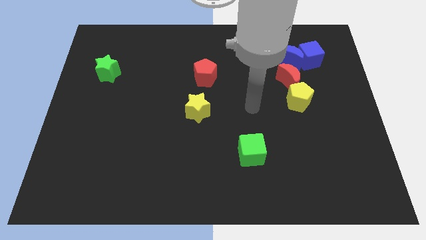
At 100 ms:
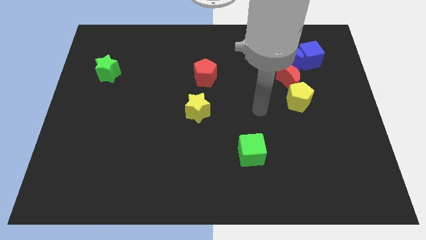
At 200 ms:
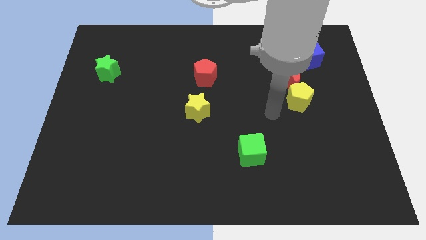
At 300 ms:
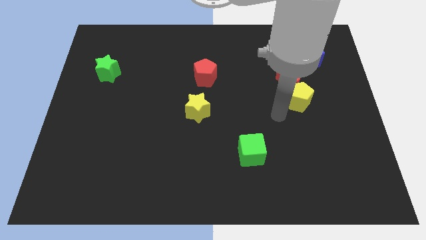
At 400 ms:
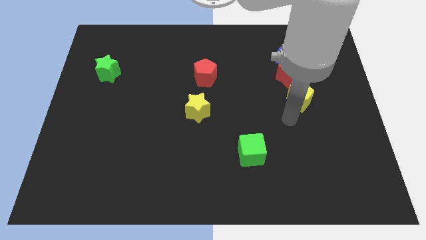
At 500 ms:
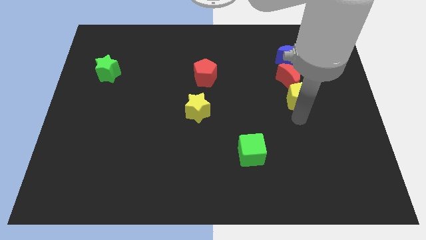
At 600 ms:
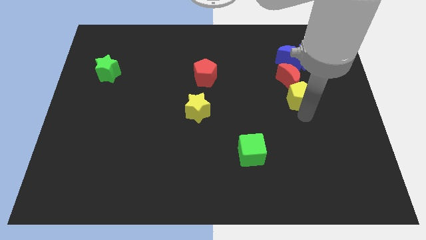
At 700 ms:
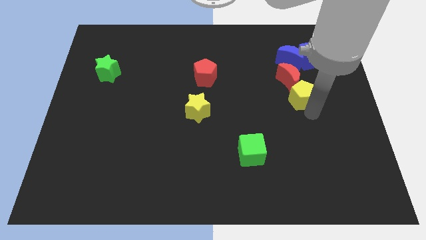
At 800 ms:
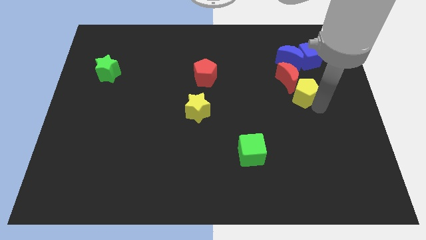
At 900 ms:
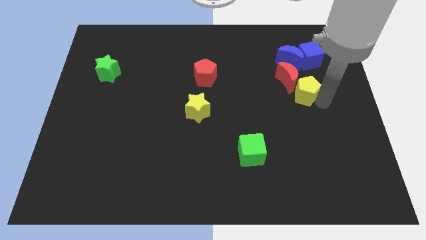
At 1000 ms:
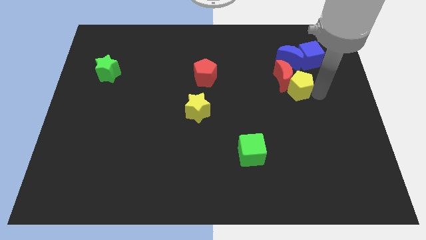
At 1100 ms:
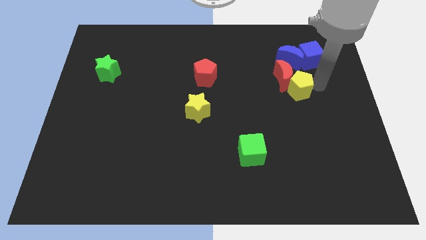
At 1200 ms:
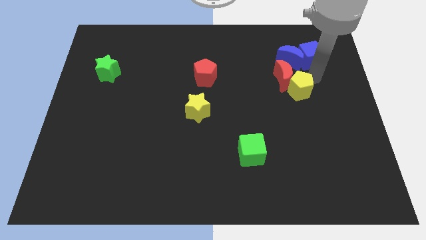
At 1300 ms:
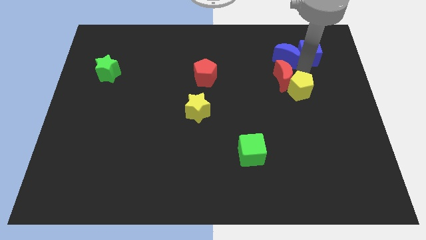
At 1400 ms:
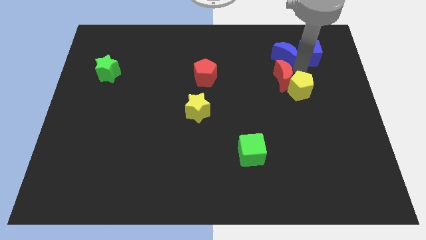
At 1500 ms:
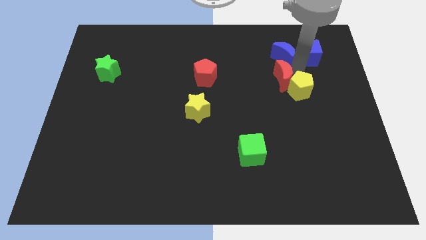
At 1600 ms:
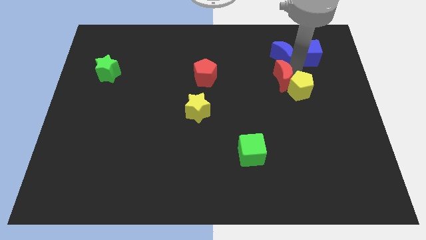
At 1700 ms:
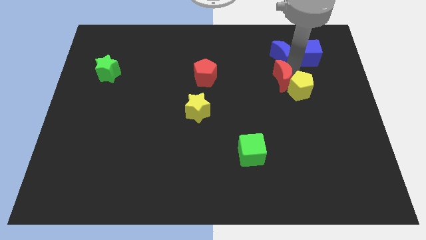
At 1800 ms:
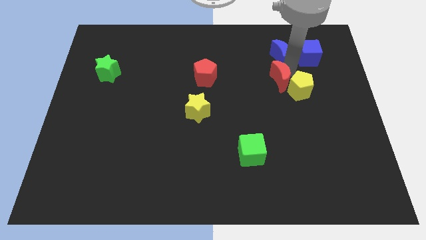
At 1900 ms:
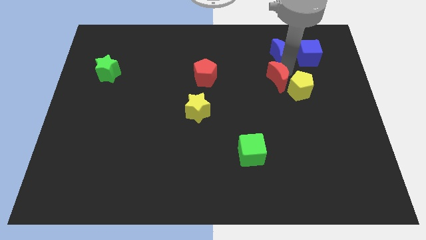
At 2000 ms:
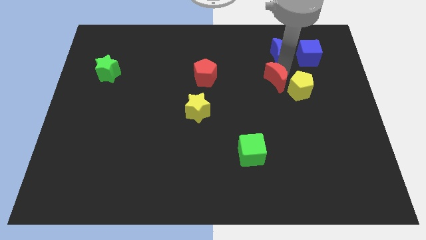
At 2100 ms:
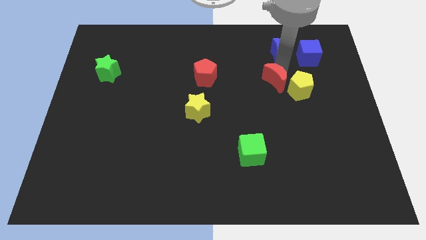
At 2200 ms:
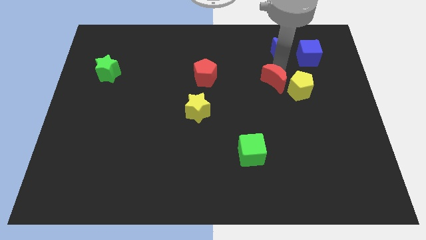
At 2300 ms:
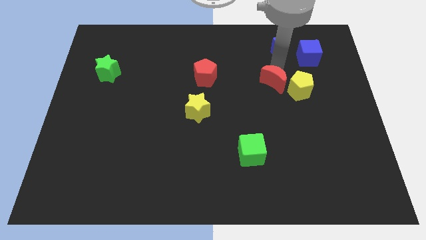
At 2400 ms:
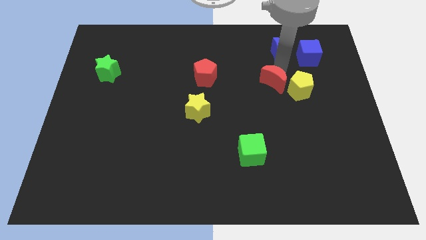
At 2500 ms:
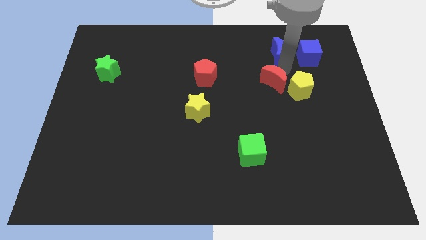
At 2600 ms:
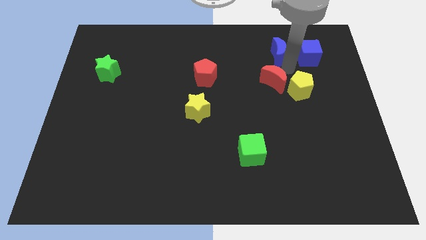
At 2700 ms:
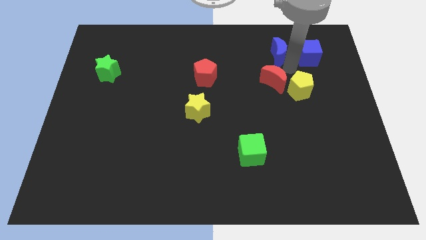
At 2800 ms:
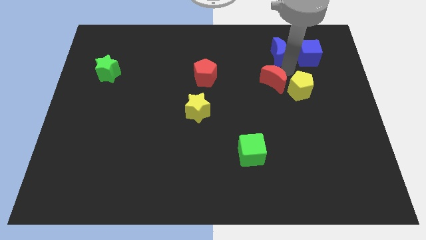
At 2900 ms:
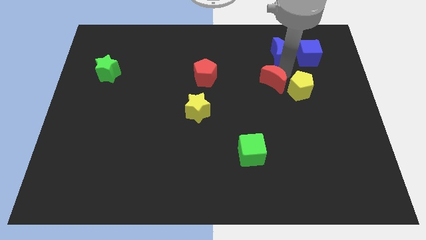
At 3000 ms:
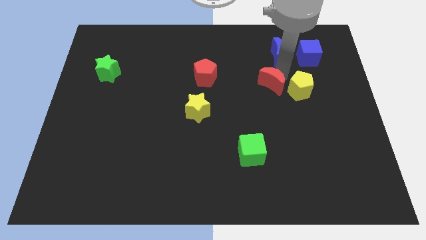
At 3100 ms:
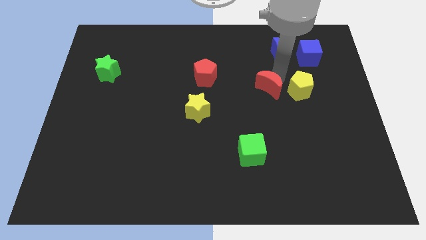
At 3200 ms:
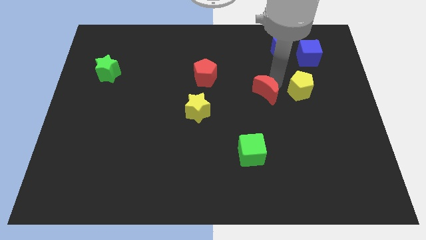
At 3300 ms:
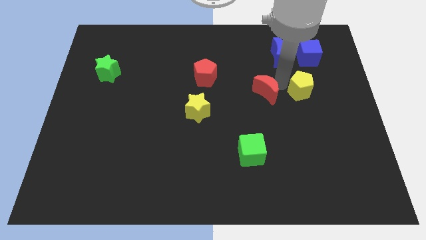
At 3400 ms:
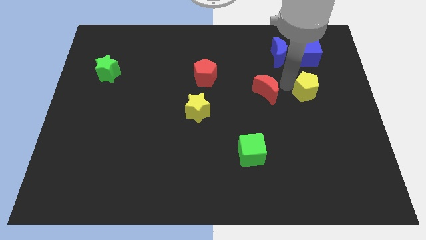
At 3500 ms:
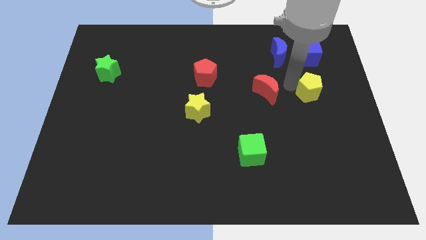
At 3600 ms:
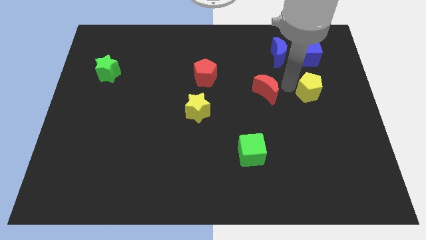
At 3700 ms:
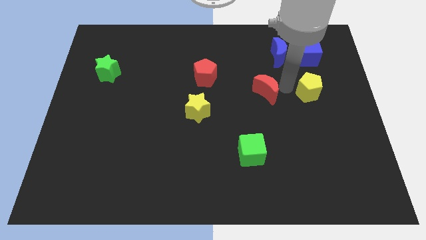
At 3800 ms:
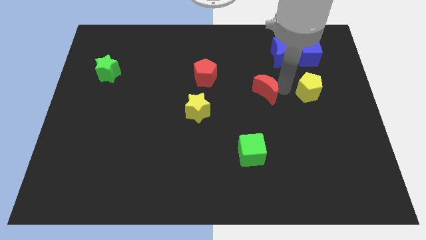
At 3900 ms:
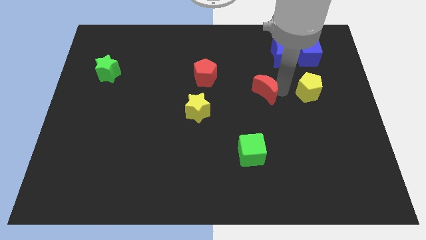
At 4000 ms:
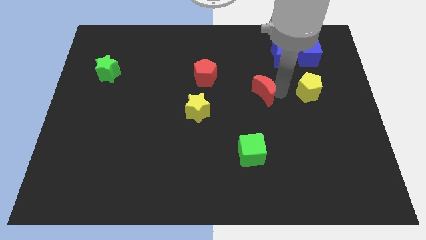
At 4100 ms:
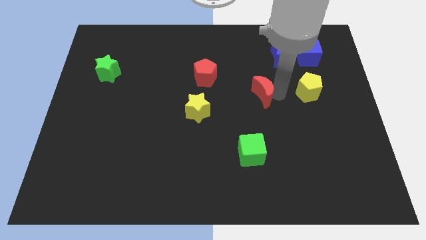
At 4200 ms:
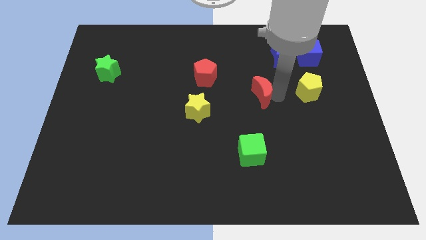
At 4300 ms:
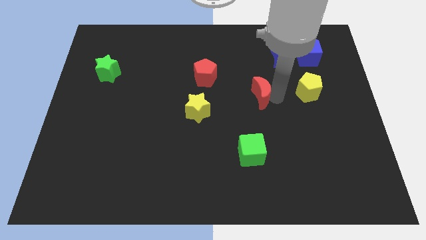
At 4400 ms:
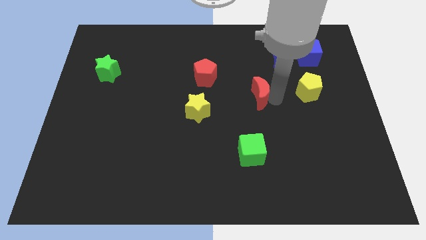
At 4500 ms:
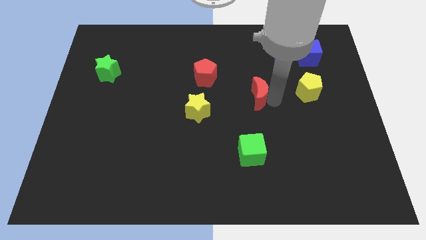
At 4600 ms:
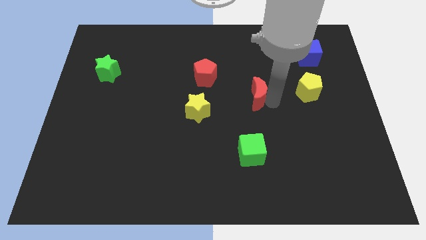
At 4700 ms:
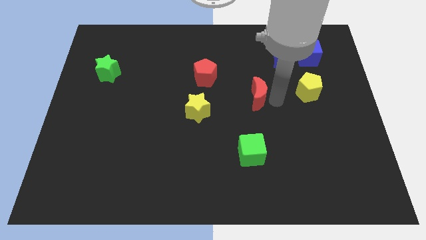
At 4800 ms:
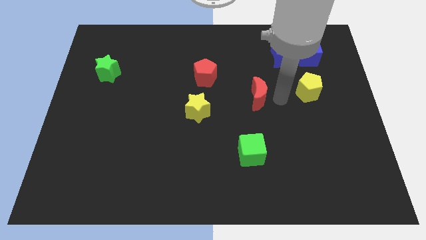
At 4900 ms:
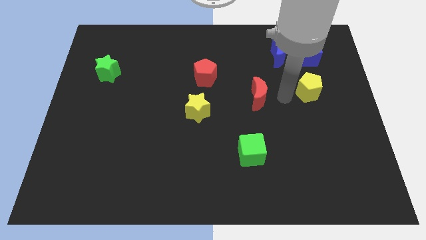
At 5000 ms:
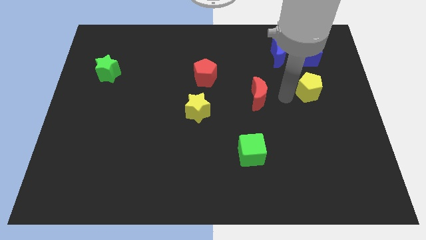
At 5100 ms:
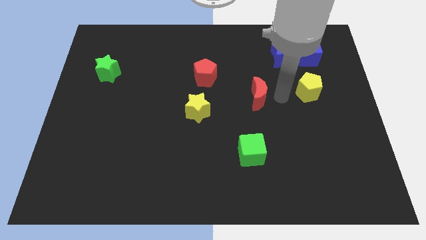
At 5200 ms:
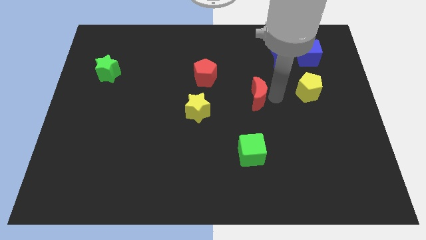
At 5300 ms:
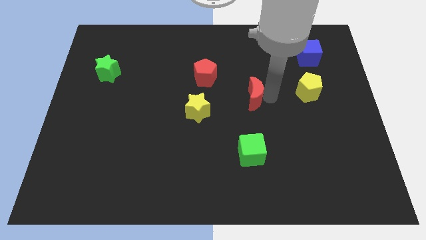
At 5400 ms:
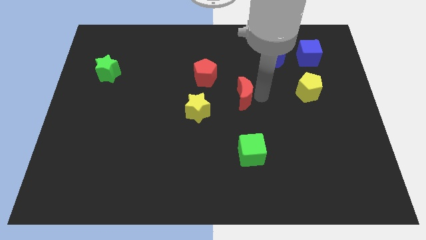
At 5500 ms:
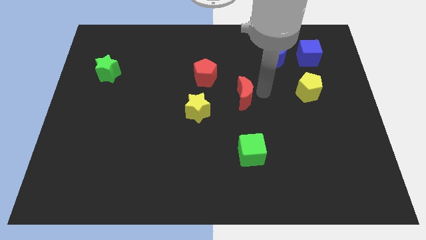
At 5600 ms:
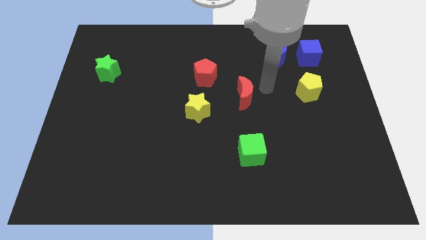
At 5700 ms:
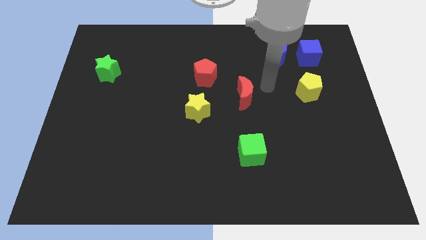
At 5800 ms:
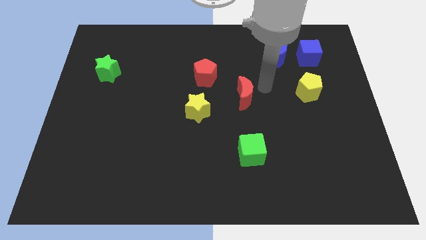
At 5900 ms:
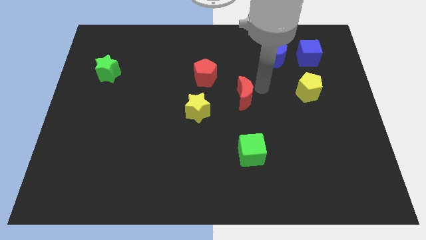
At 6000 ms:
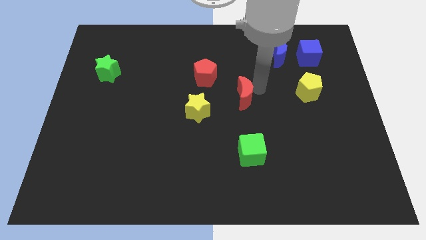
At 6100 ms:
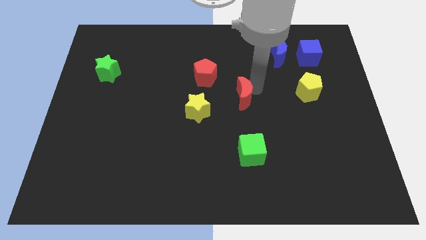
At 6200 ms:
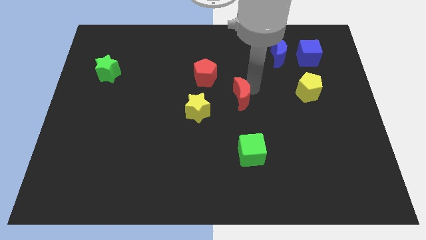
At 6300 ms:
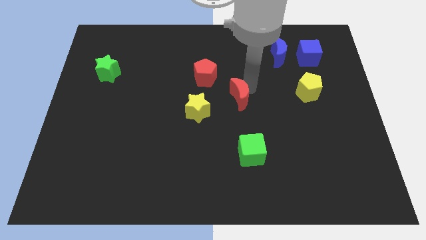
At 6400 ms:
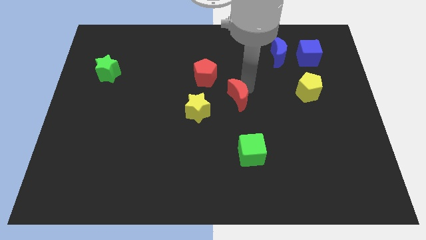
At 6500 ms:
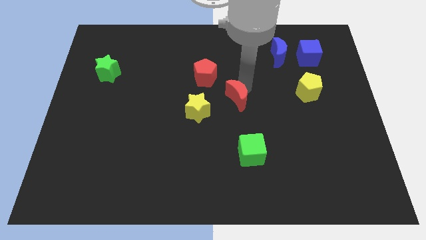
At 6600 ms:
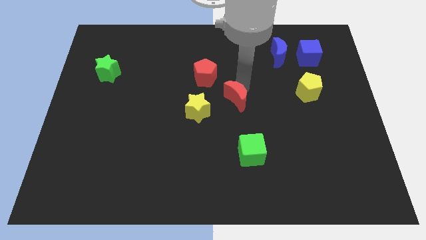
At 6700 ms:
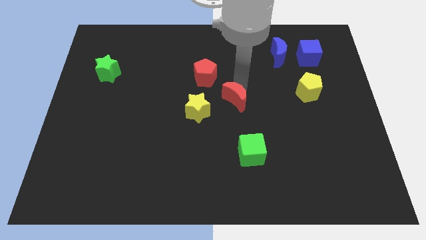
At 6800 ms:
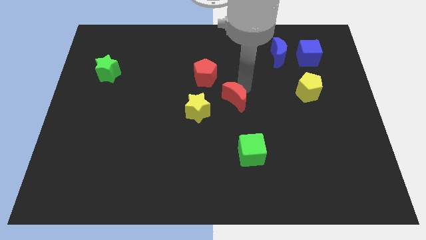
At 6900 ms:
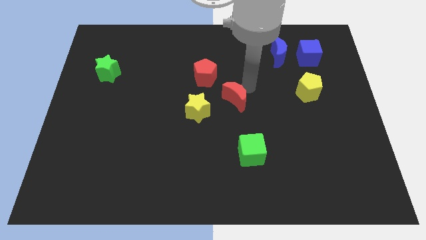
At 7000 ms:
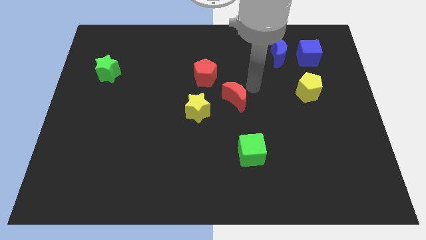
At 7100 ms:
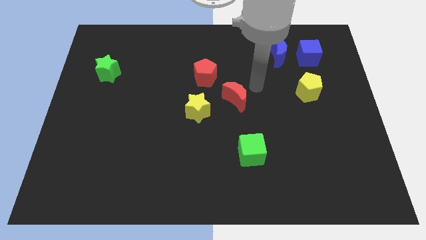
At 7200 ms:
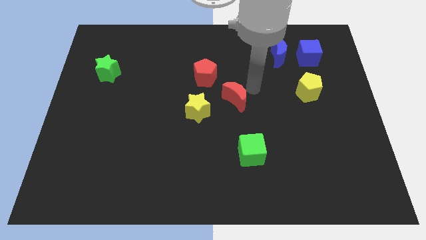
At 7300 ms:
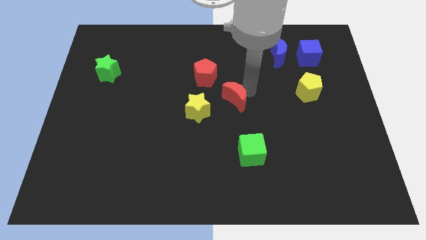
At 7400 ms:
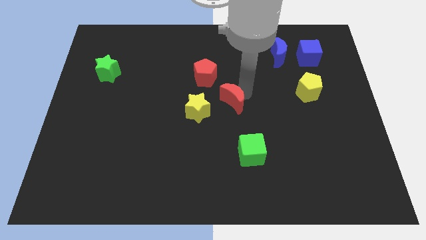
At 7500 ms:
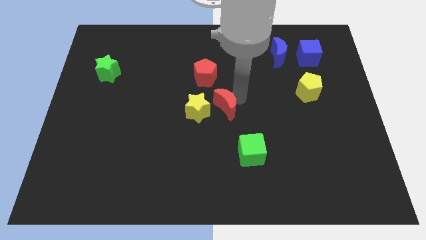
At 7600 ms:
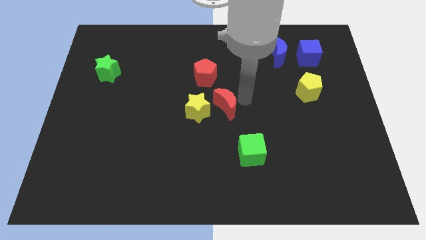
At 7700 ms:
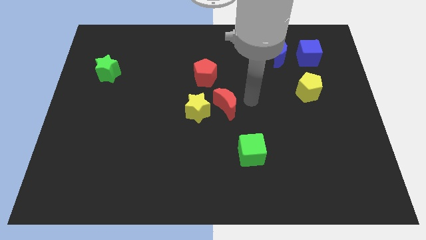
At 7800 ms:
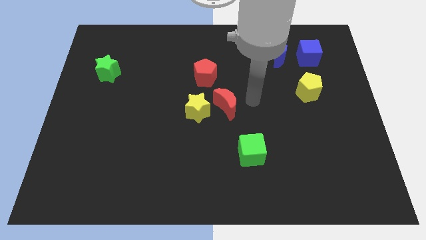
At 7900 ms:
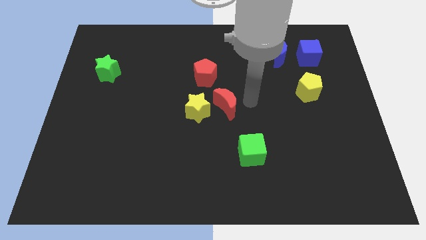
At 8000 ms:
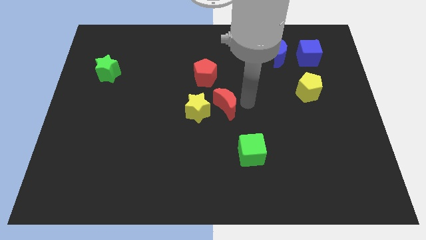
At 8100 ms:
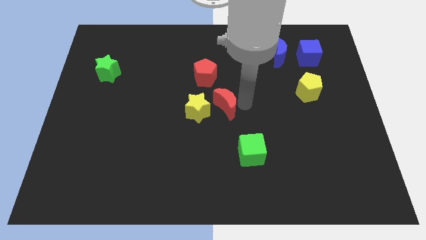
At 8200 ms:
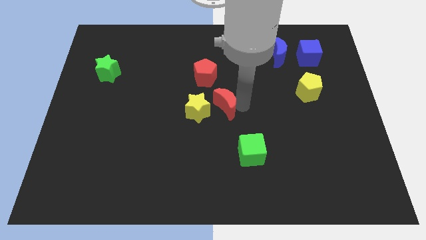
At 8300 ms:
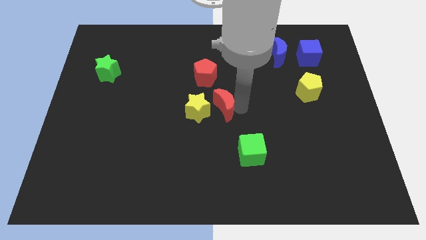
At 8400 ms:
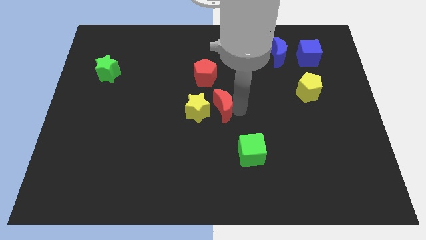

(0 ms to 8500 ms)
put the red moon to the yellow star
